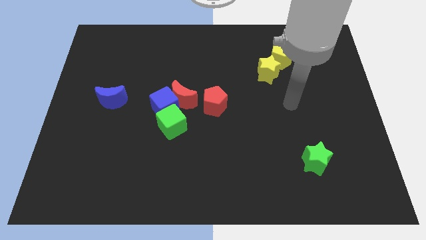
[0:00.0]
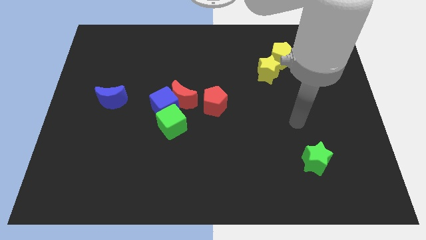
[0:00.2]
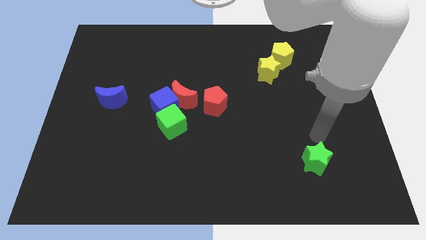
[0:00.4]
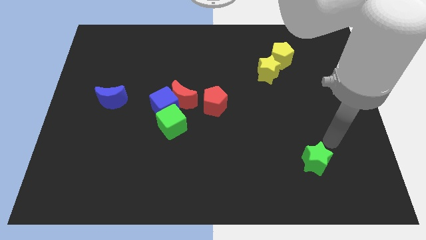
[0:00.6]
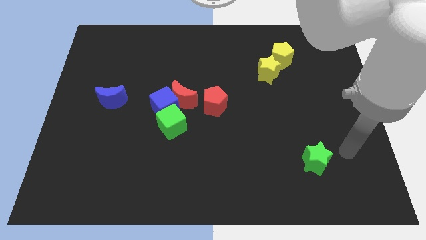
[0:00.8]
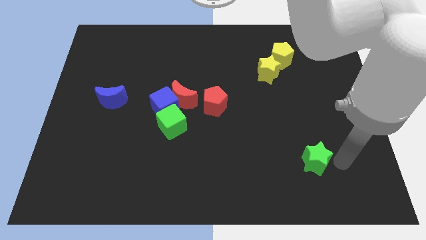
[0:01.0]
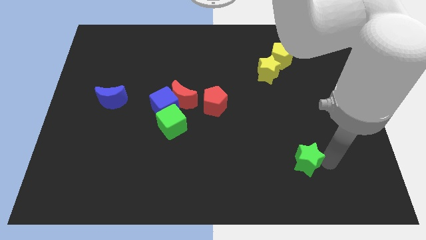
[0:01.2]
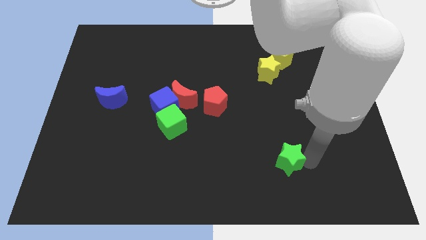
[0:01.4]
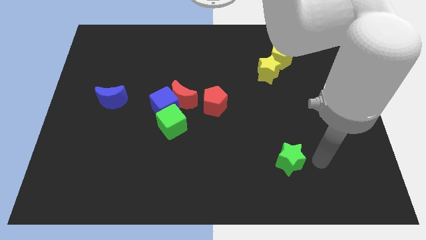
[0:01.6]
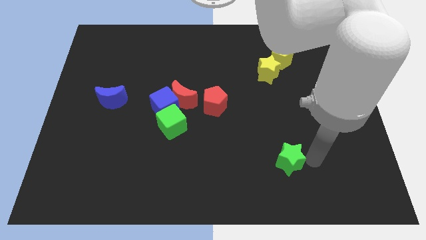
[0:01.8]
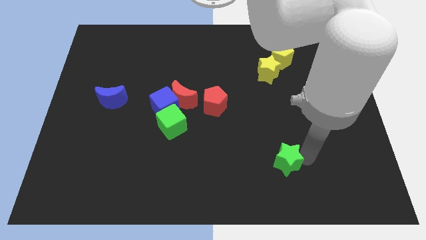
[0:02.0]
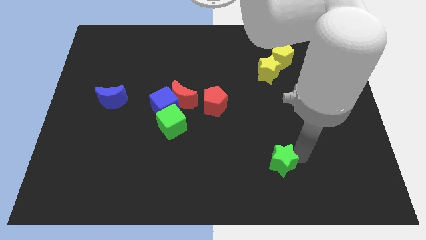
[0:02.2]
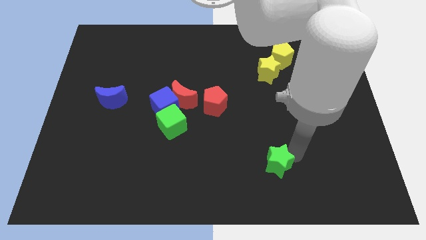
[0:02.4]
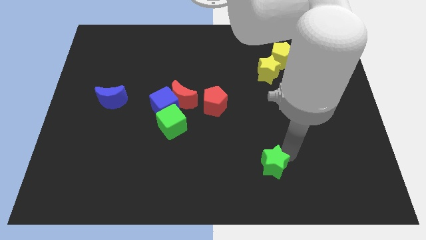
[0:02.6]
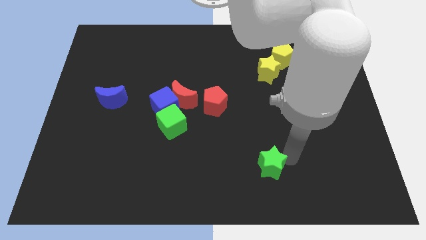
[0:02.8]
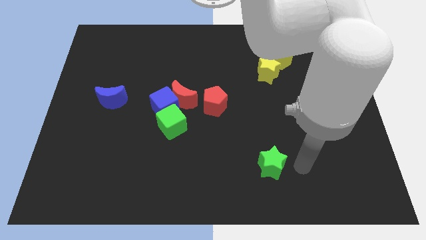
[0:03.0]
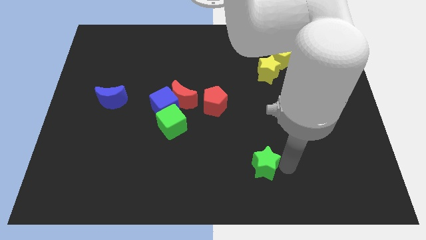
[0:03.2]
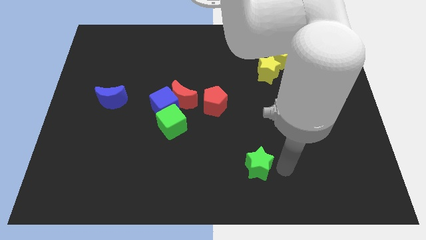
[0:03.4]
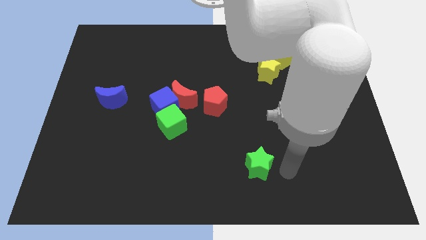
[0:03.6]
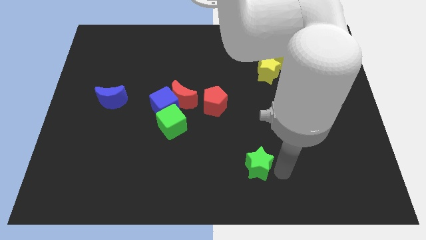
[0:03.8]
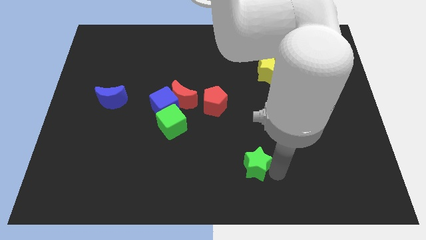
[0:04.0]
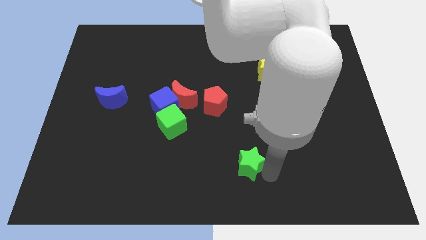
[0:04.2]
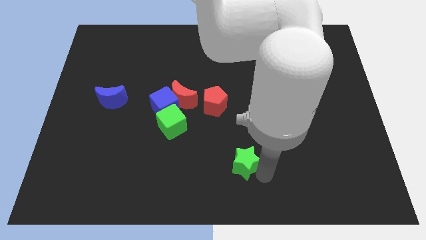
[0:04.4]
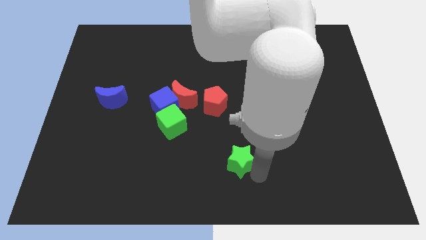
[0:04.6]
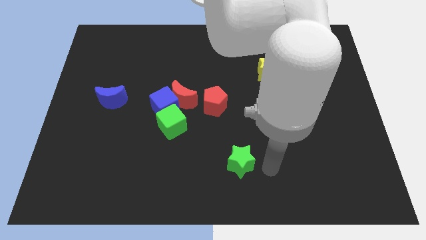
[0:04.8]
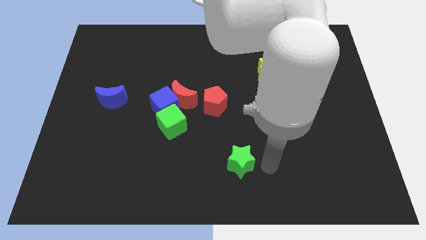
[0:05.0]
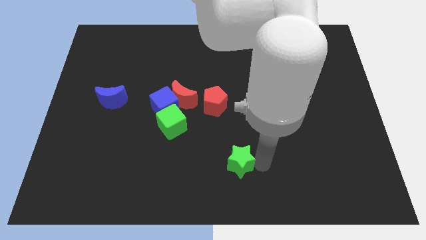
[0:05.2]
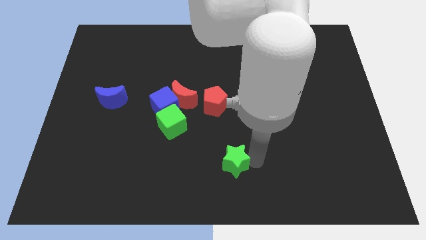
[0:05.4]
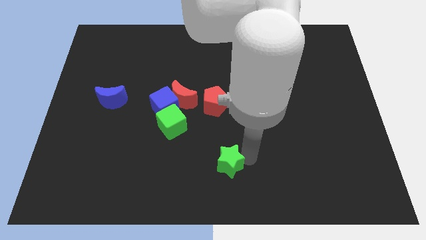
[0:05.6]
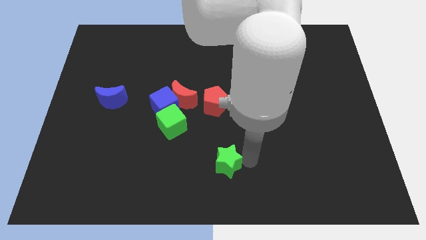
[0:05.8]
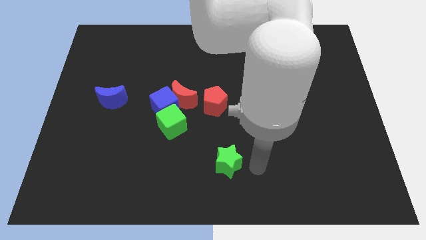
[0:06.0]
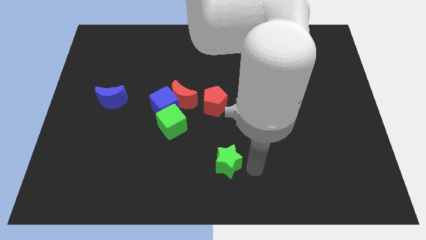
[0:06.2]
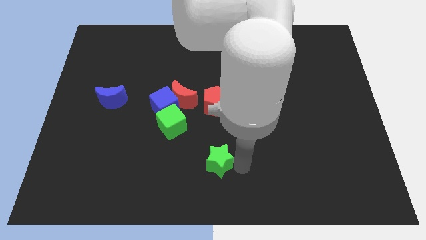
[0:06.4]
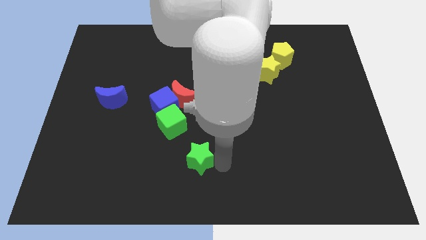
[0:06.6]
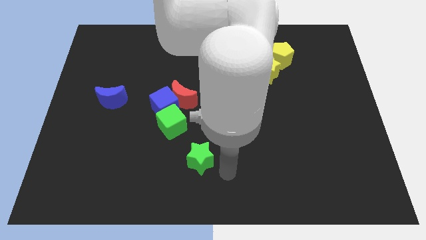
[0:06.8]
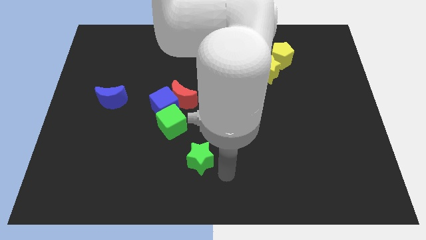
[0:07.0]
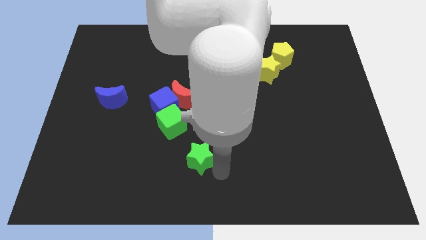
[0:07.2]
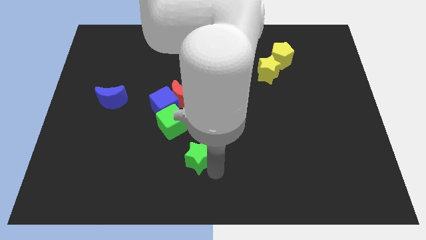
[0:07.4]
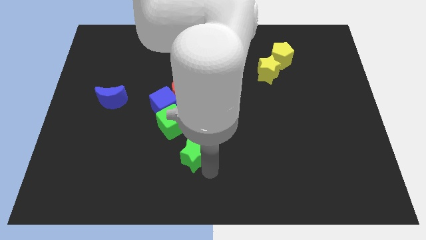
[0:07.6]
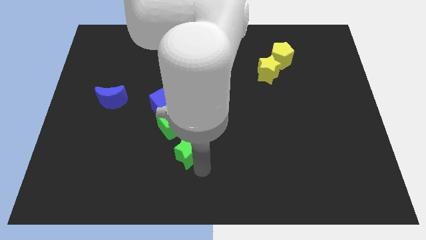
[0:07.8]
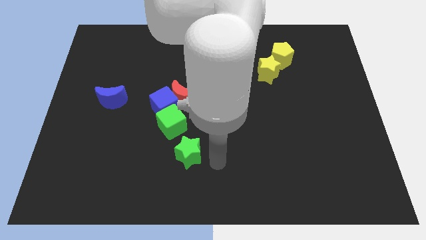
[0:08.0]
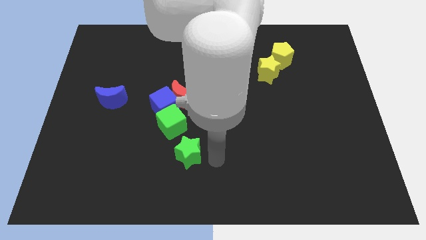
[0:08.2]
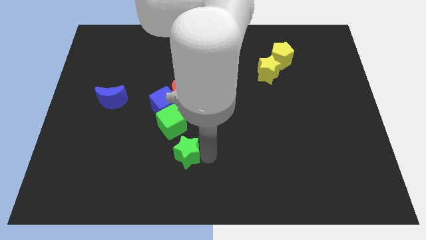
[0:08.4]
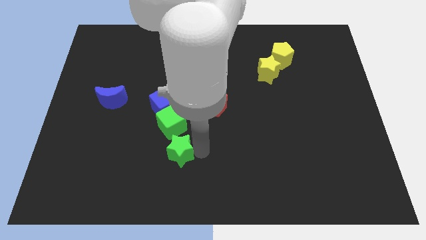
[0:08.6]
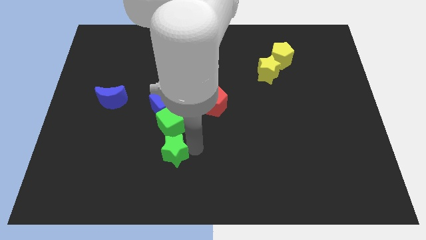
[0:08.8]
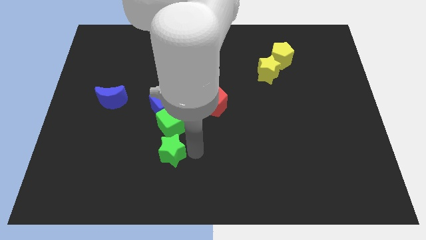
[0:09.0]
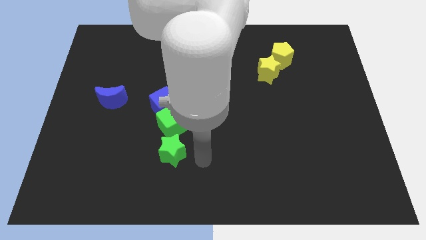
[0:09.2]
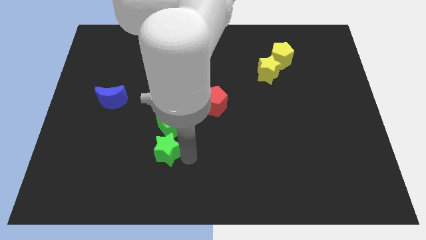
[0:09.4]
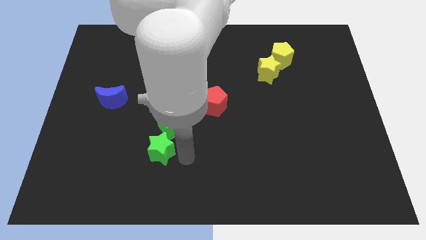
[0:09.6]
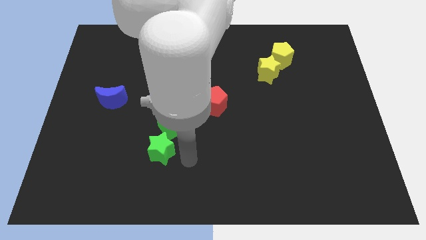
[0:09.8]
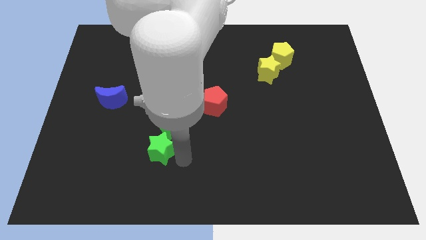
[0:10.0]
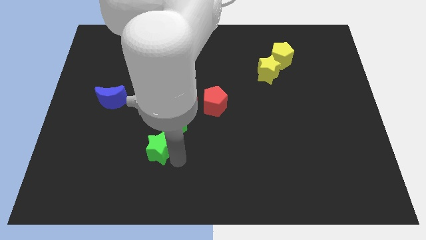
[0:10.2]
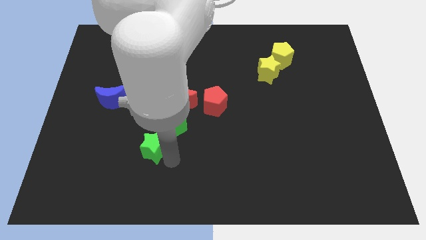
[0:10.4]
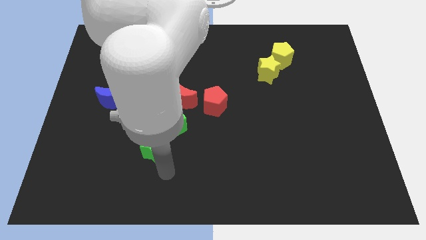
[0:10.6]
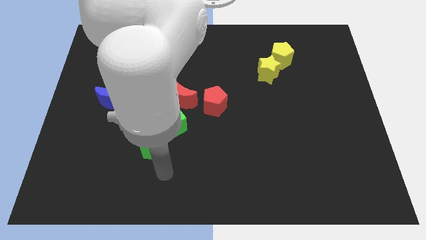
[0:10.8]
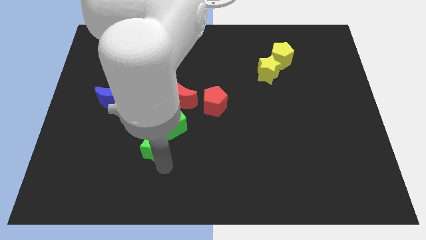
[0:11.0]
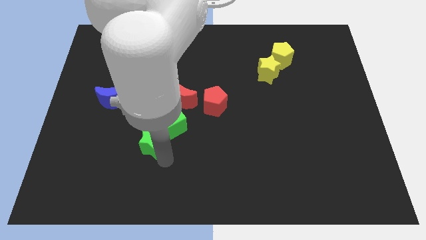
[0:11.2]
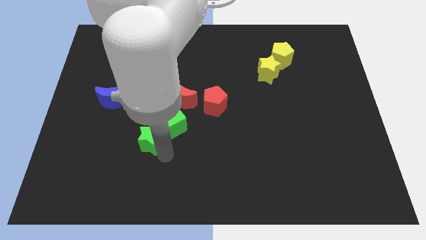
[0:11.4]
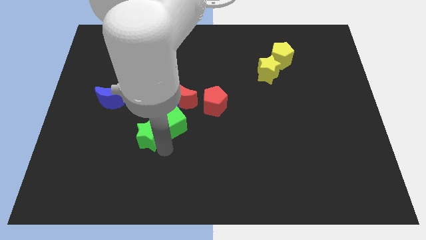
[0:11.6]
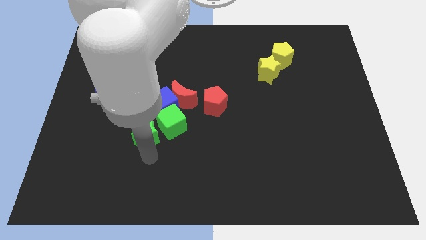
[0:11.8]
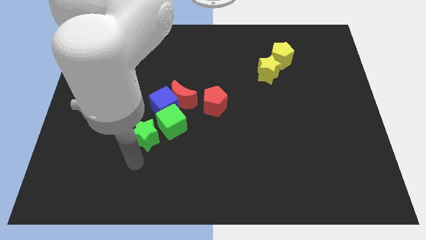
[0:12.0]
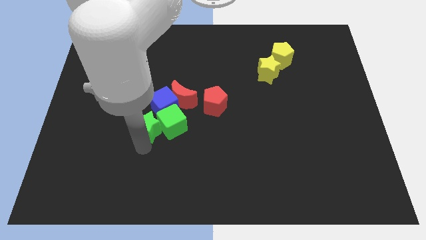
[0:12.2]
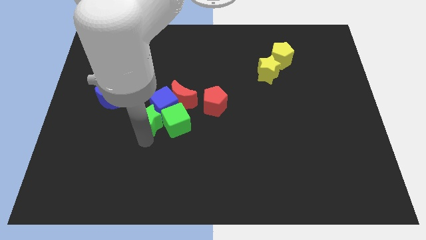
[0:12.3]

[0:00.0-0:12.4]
put the green star towards the blue cube
